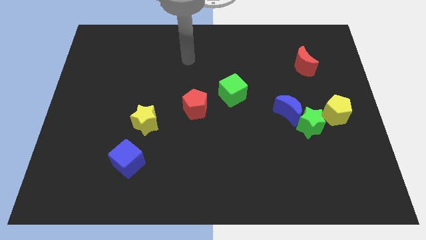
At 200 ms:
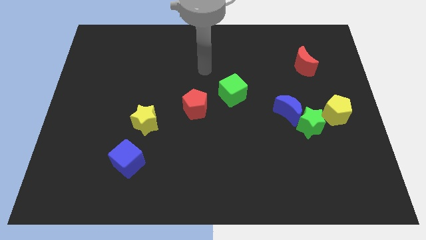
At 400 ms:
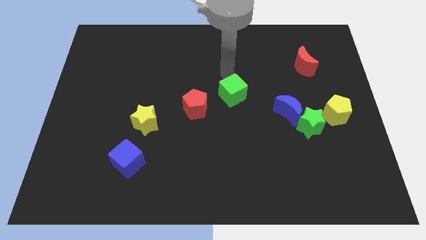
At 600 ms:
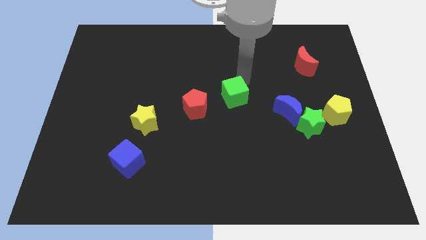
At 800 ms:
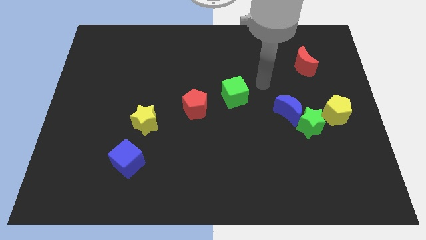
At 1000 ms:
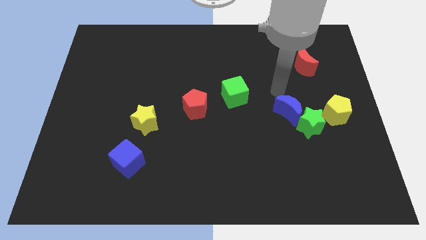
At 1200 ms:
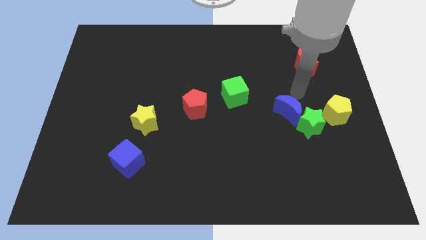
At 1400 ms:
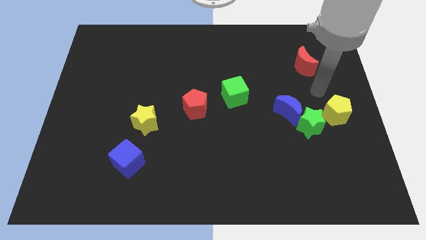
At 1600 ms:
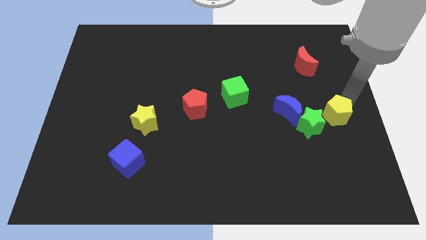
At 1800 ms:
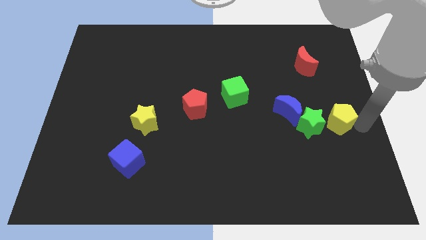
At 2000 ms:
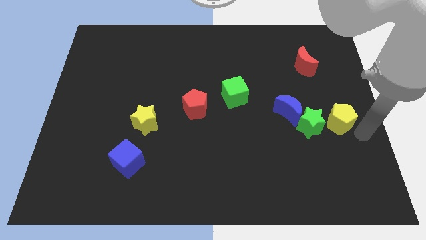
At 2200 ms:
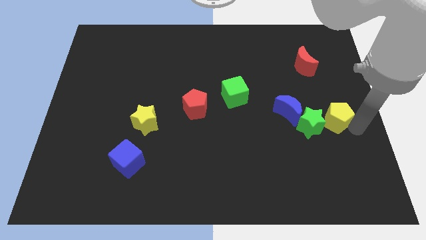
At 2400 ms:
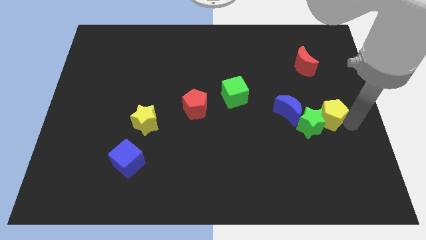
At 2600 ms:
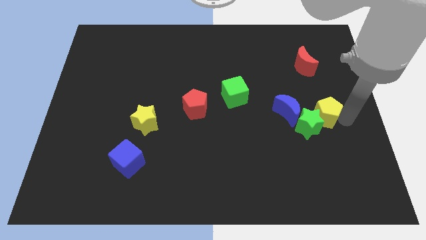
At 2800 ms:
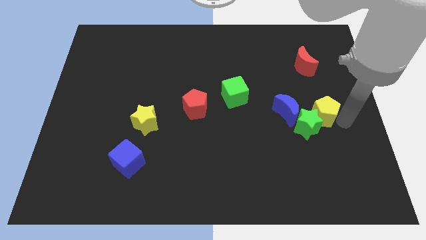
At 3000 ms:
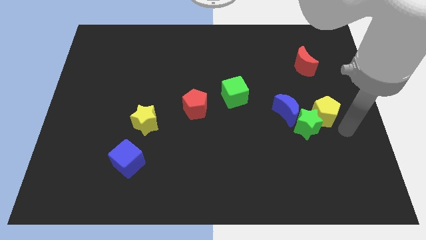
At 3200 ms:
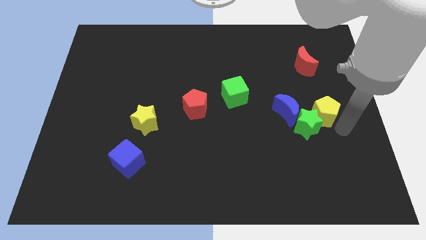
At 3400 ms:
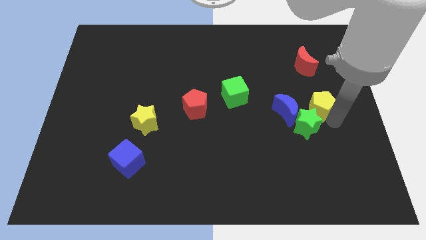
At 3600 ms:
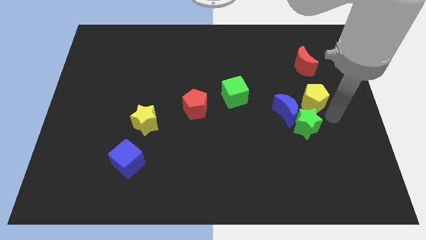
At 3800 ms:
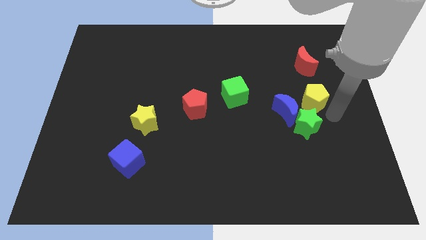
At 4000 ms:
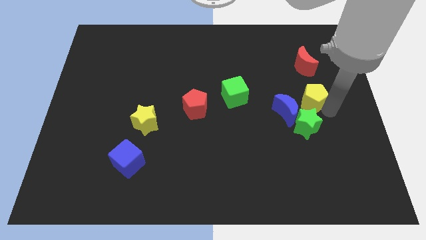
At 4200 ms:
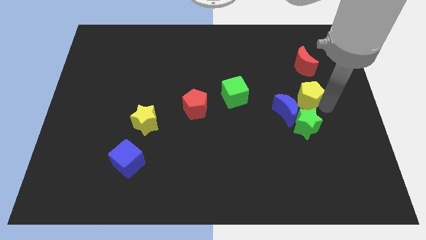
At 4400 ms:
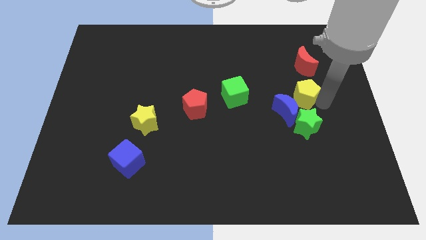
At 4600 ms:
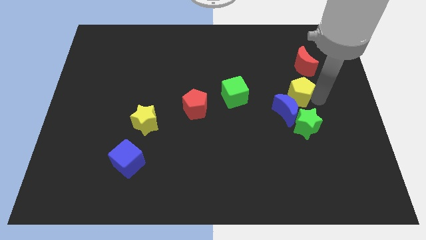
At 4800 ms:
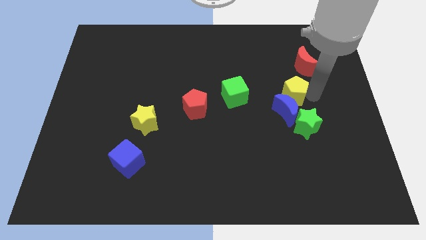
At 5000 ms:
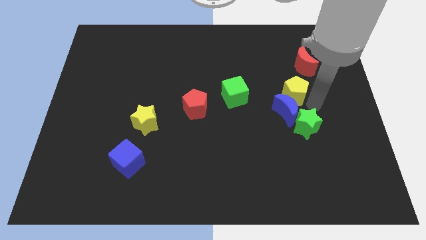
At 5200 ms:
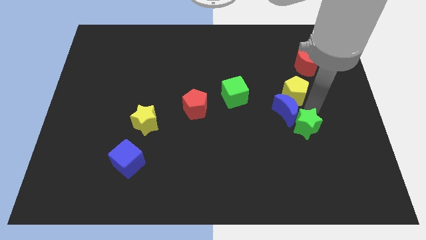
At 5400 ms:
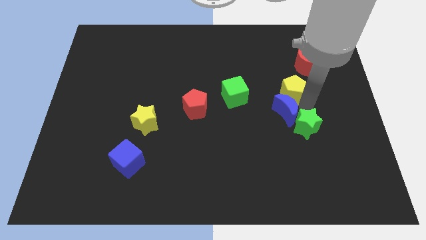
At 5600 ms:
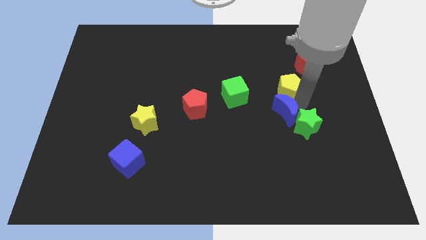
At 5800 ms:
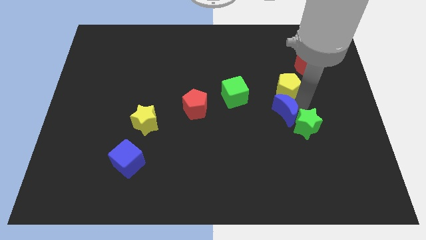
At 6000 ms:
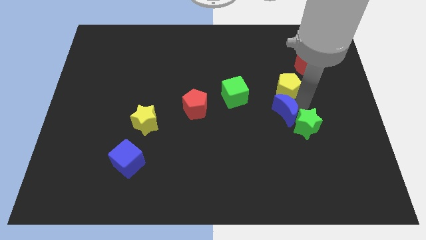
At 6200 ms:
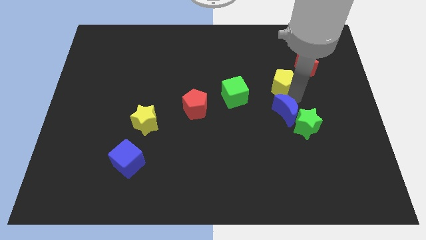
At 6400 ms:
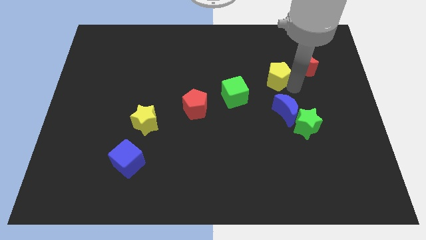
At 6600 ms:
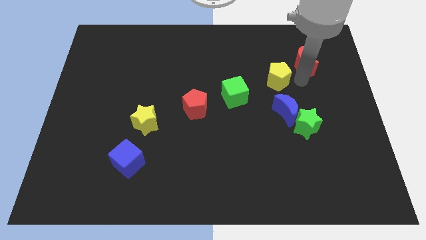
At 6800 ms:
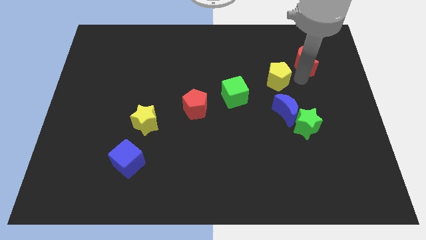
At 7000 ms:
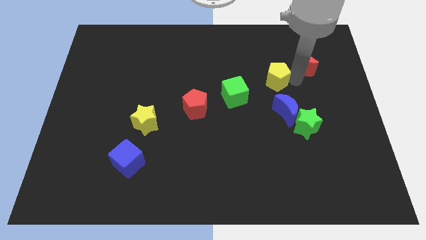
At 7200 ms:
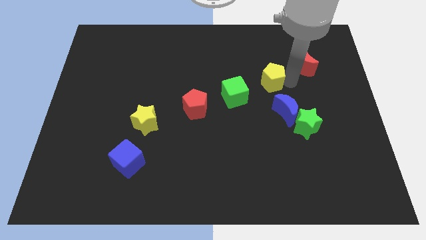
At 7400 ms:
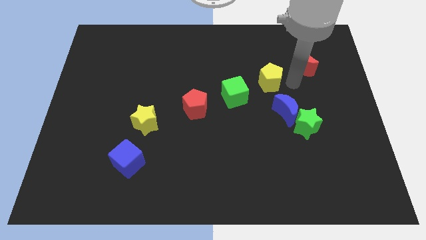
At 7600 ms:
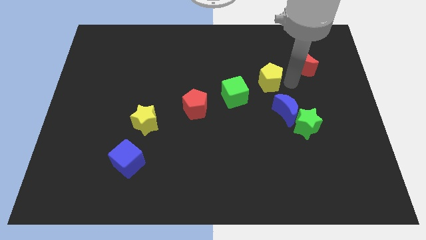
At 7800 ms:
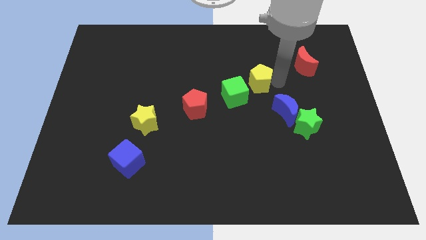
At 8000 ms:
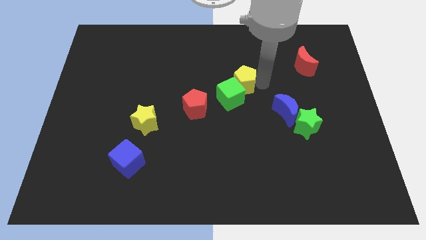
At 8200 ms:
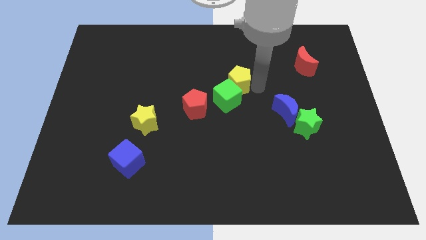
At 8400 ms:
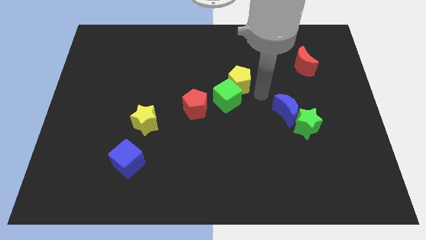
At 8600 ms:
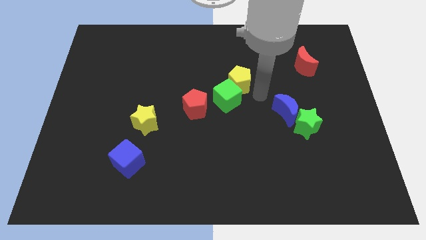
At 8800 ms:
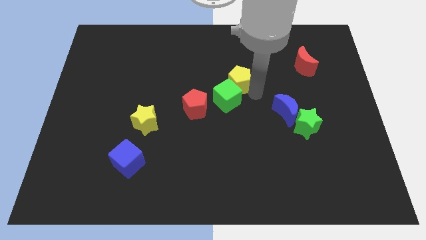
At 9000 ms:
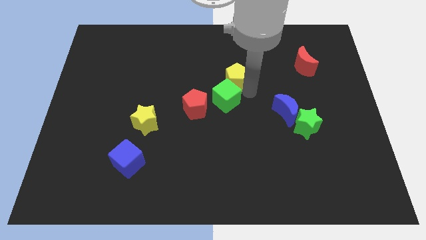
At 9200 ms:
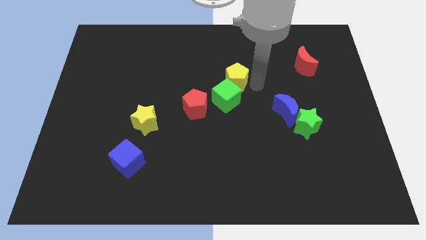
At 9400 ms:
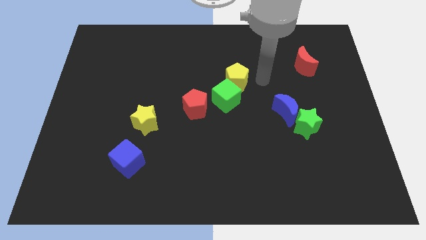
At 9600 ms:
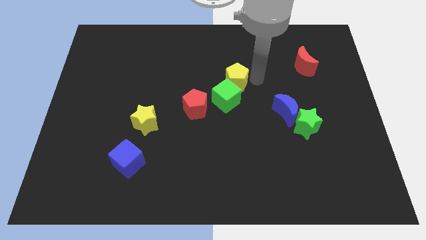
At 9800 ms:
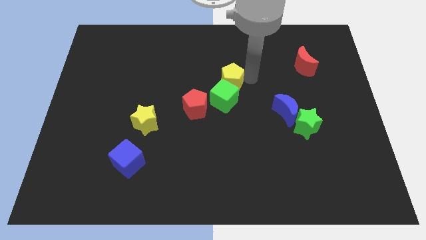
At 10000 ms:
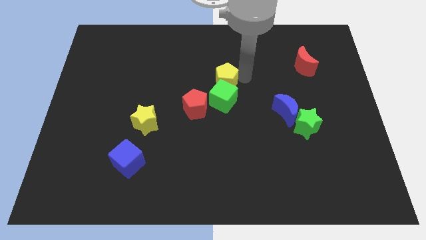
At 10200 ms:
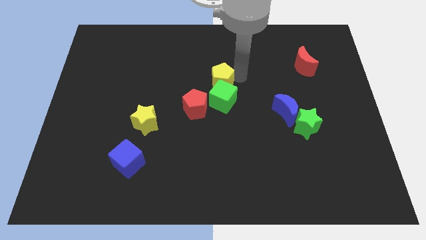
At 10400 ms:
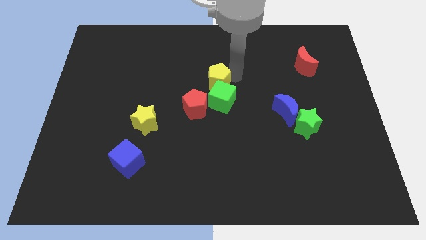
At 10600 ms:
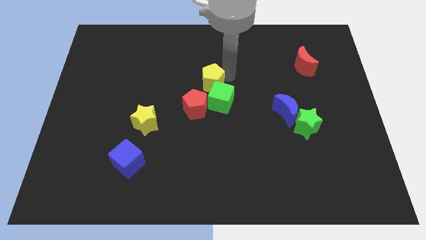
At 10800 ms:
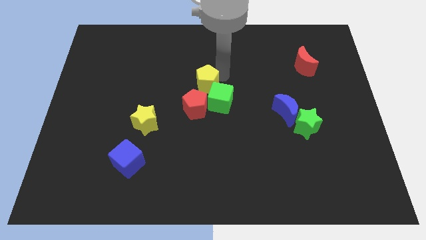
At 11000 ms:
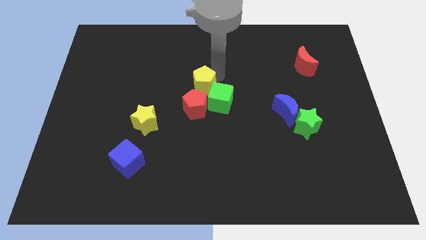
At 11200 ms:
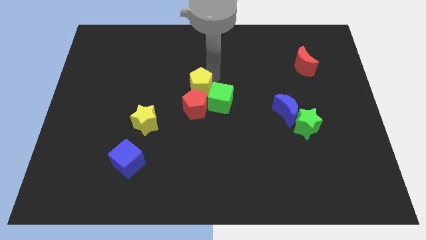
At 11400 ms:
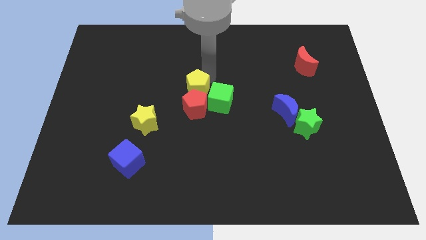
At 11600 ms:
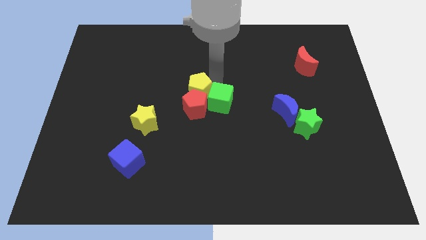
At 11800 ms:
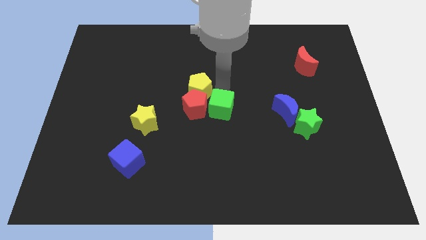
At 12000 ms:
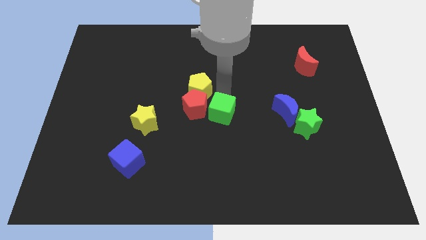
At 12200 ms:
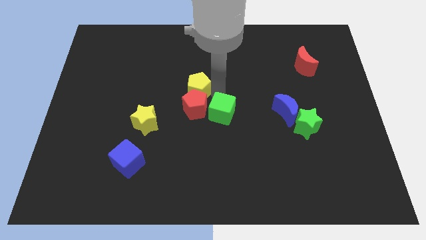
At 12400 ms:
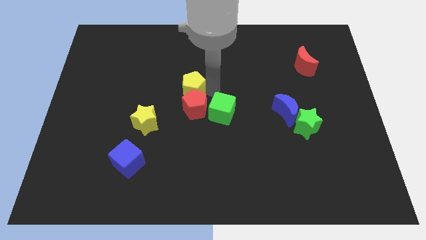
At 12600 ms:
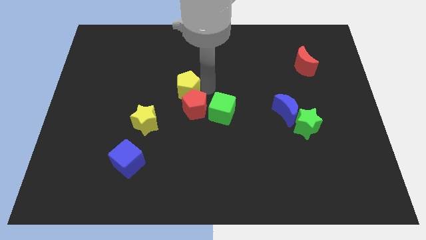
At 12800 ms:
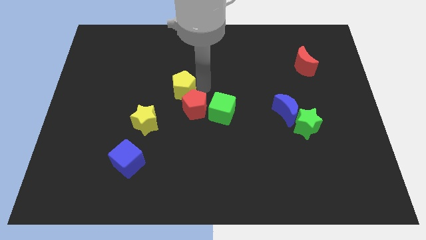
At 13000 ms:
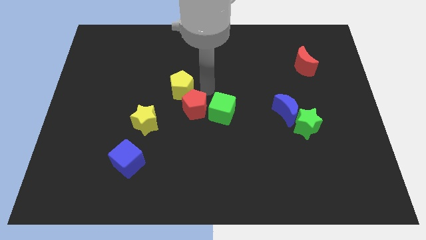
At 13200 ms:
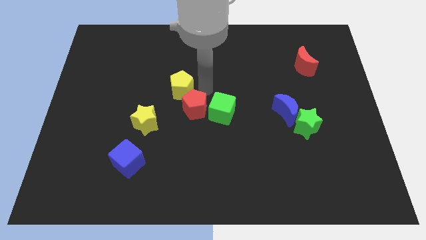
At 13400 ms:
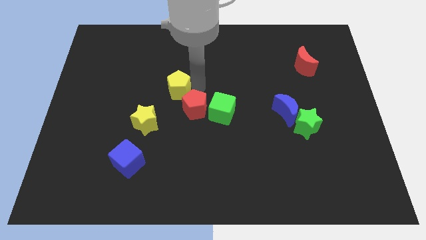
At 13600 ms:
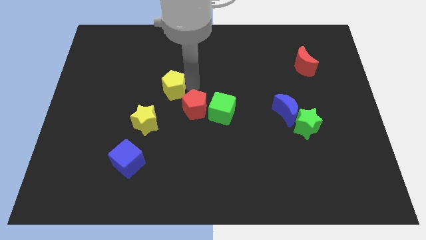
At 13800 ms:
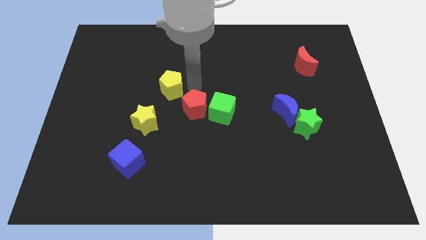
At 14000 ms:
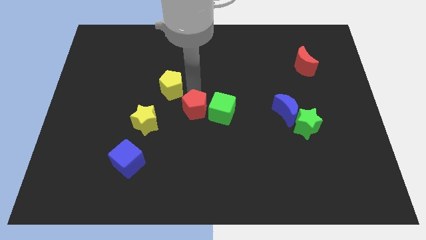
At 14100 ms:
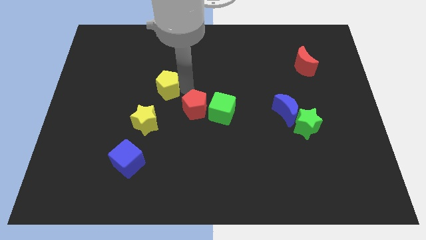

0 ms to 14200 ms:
put the yellow pentagon to the top of the yellow star
